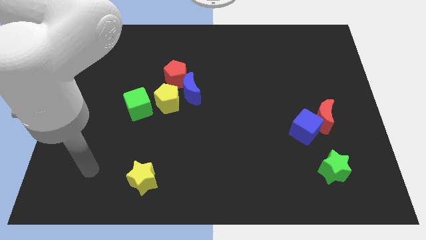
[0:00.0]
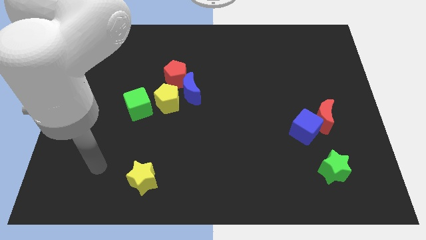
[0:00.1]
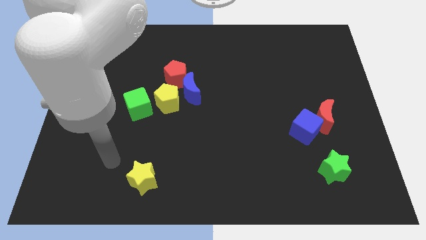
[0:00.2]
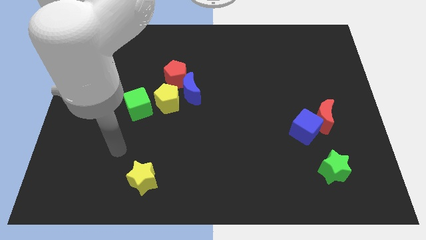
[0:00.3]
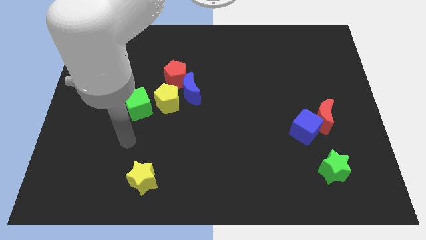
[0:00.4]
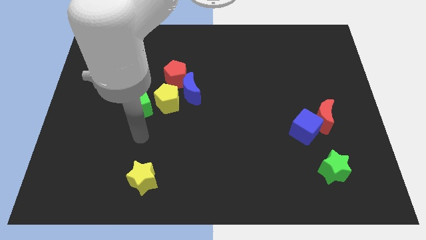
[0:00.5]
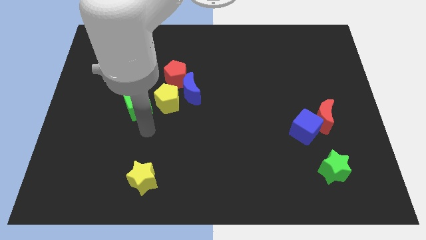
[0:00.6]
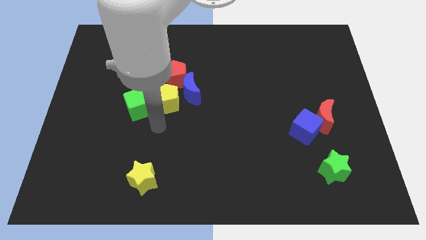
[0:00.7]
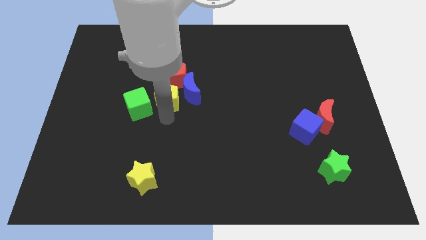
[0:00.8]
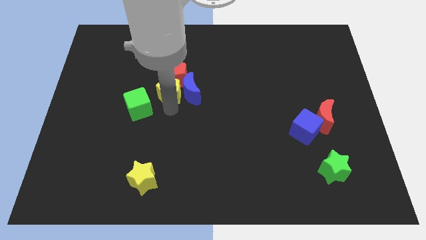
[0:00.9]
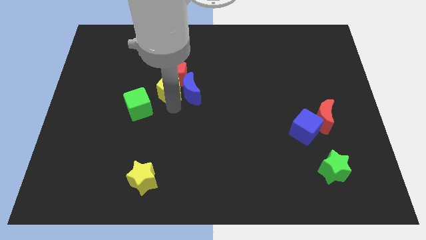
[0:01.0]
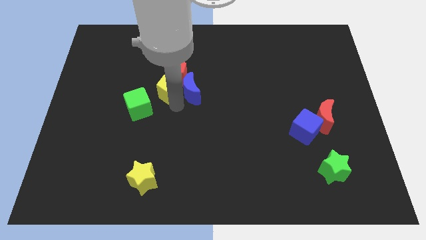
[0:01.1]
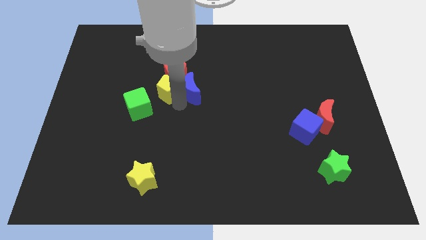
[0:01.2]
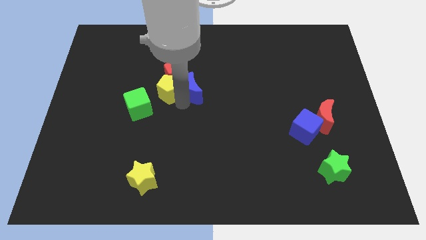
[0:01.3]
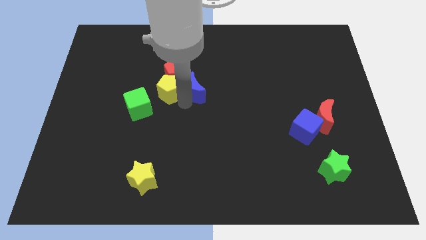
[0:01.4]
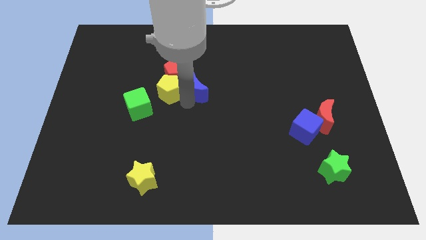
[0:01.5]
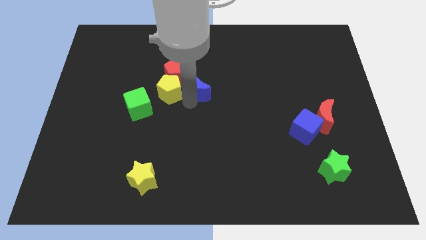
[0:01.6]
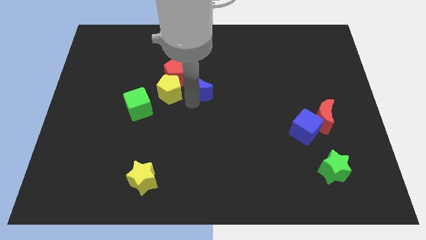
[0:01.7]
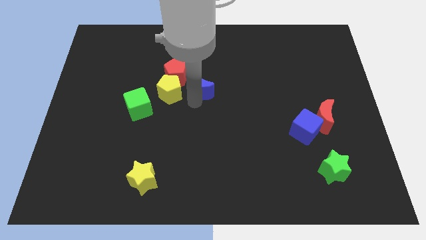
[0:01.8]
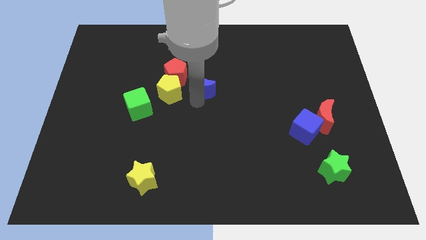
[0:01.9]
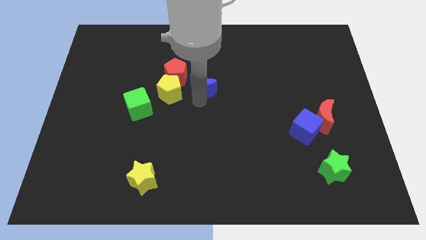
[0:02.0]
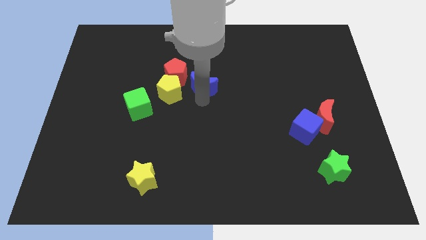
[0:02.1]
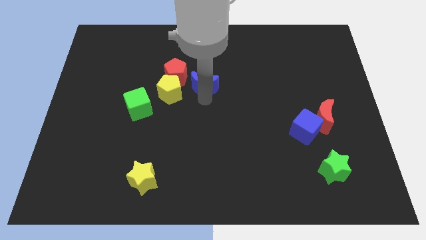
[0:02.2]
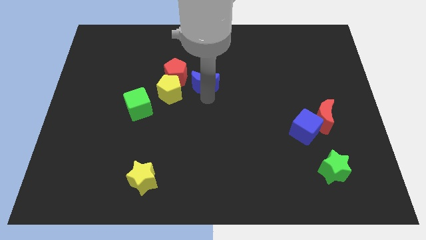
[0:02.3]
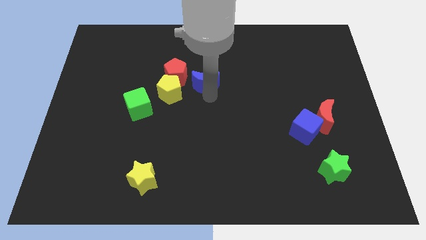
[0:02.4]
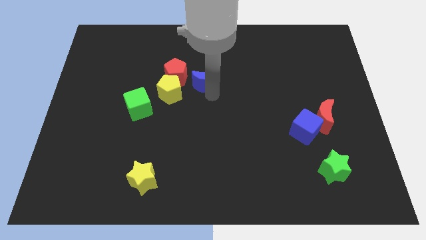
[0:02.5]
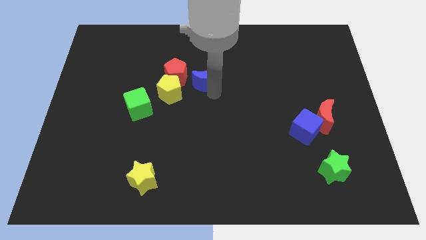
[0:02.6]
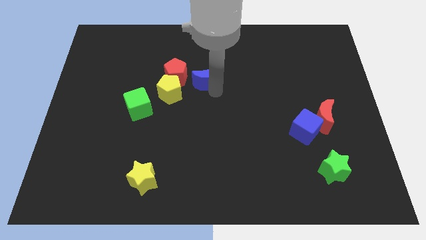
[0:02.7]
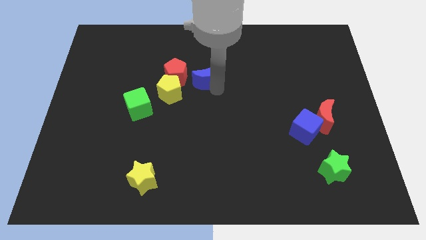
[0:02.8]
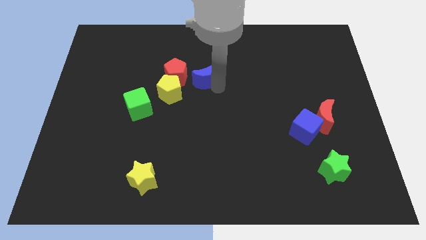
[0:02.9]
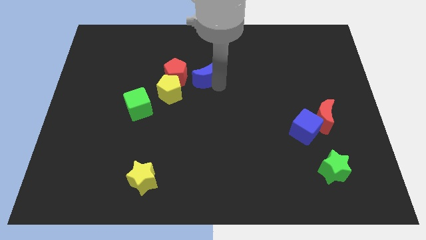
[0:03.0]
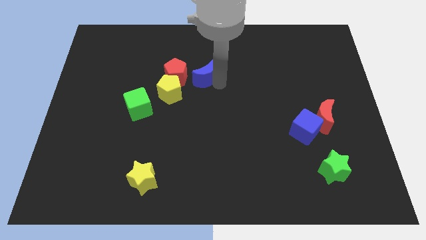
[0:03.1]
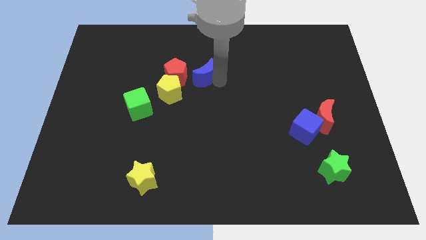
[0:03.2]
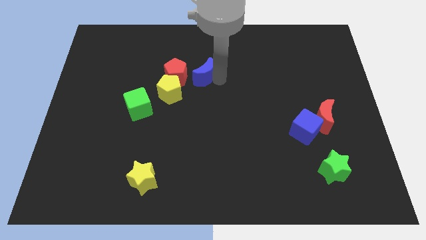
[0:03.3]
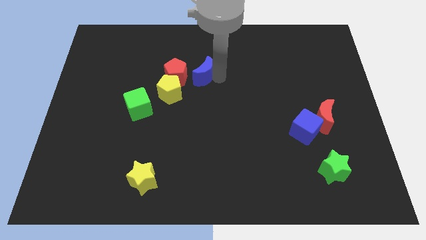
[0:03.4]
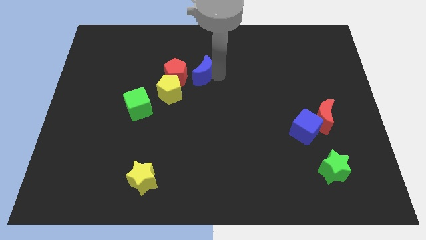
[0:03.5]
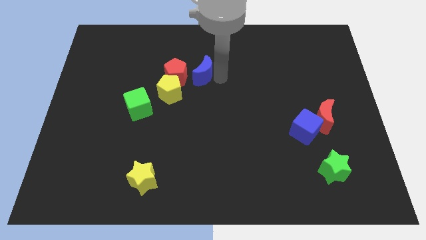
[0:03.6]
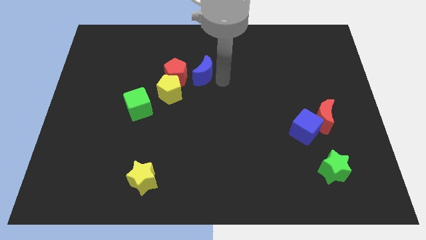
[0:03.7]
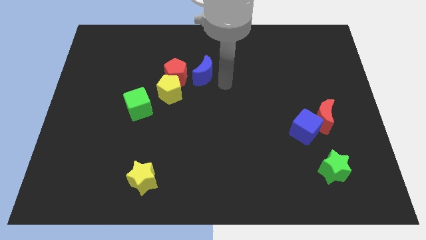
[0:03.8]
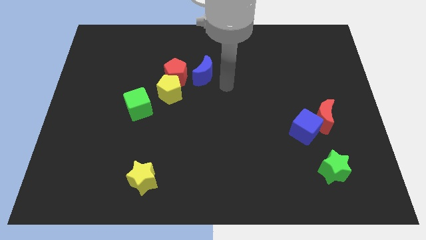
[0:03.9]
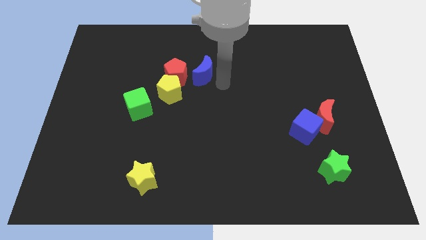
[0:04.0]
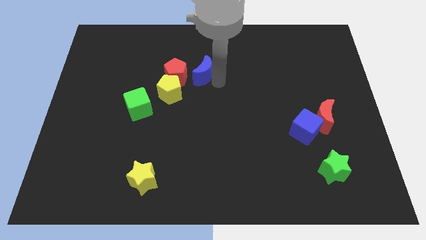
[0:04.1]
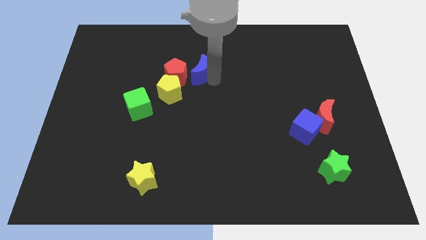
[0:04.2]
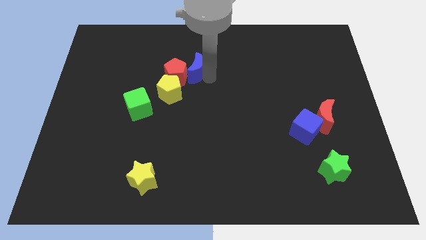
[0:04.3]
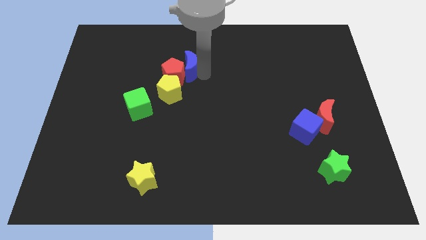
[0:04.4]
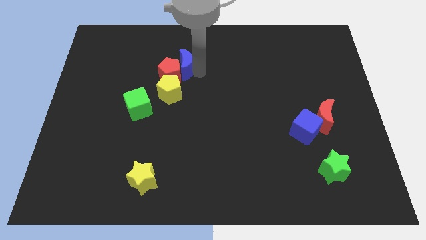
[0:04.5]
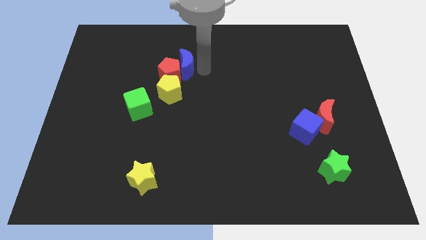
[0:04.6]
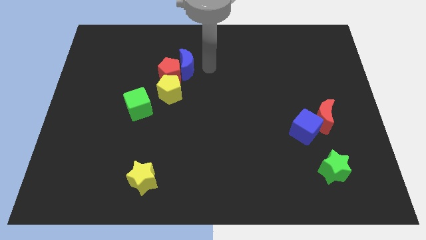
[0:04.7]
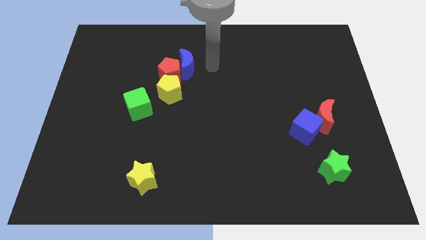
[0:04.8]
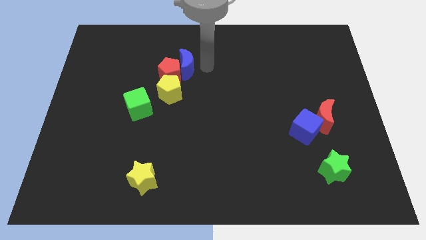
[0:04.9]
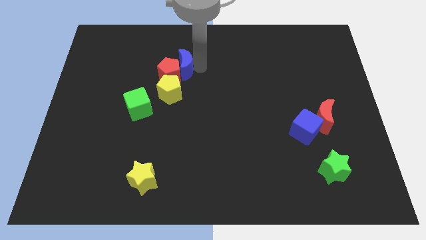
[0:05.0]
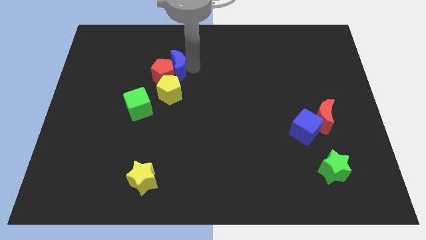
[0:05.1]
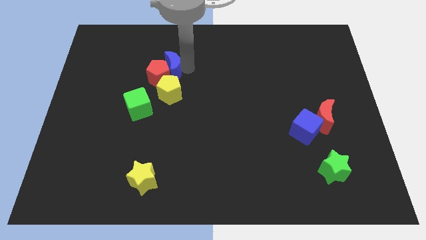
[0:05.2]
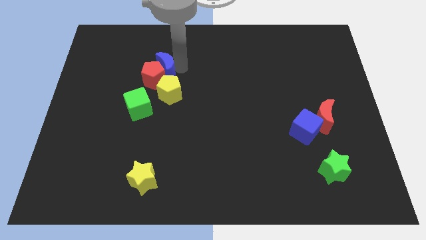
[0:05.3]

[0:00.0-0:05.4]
push the blue moon to the top left side of the yellow pentagon

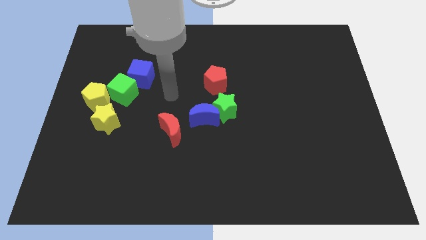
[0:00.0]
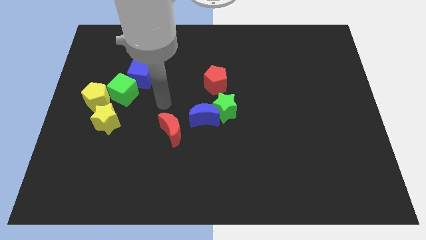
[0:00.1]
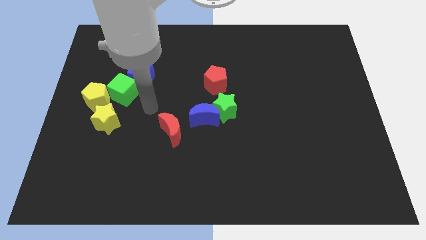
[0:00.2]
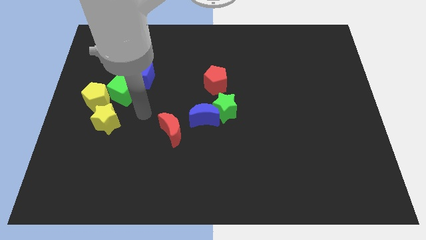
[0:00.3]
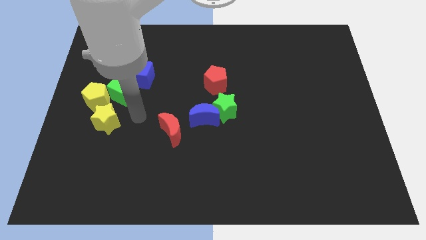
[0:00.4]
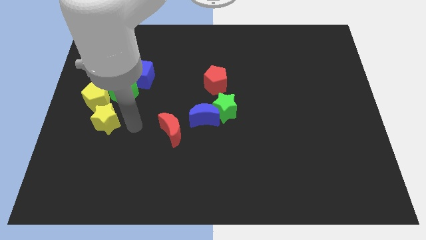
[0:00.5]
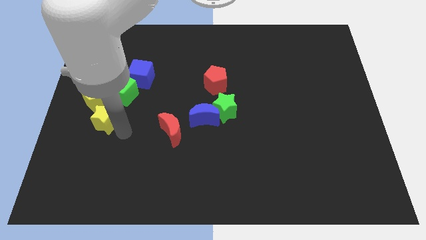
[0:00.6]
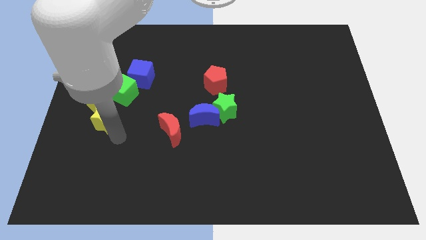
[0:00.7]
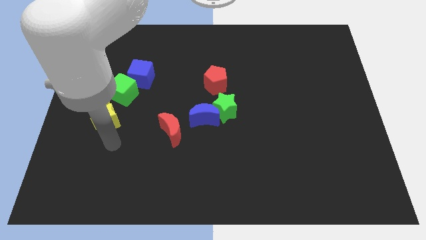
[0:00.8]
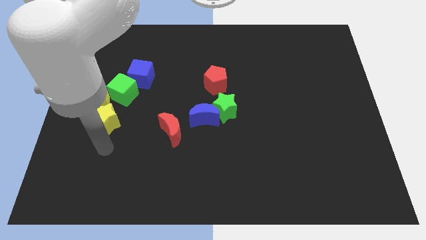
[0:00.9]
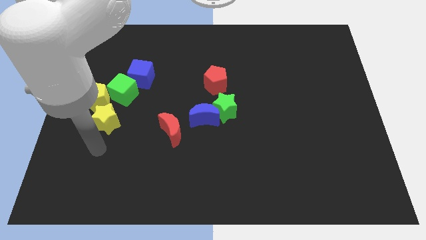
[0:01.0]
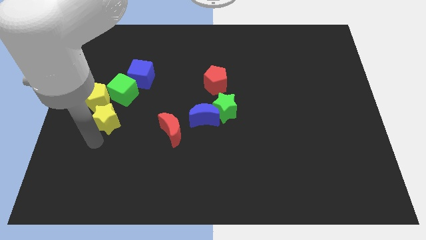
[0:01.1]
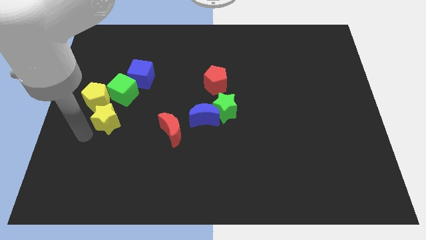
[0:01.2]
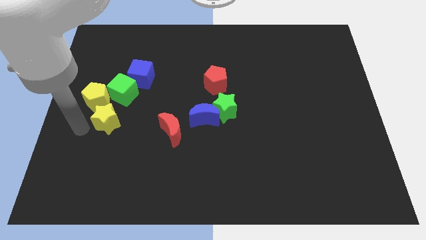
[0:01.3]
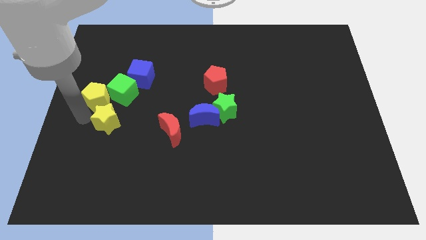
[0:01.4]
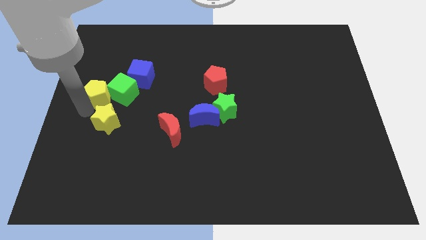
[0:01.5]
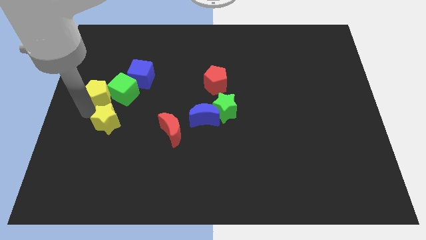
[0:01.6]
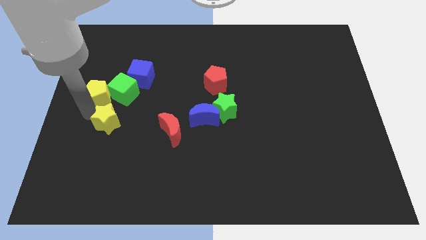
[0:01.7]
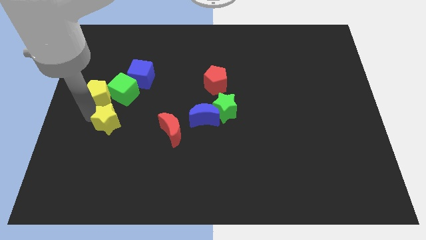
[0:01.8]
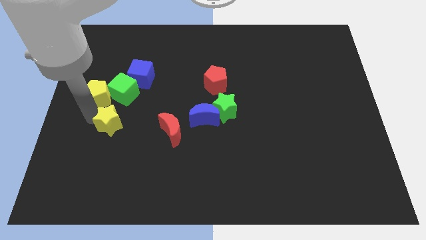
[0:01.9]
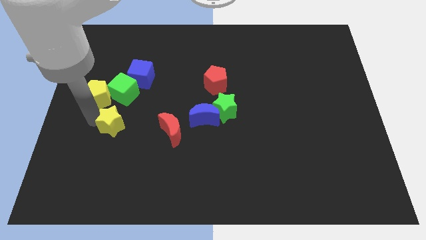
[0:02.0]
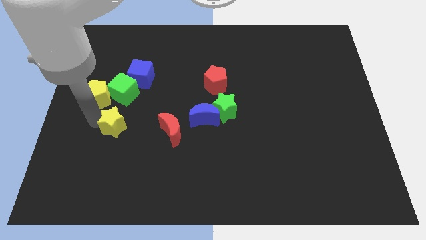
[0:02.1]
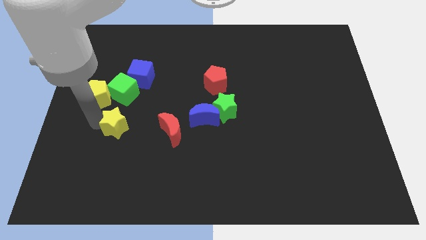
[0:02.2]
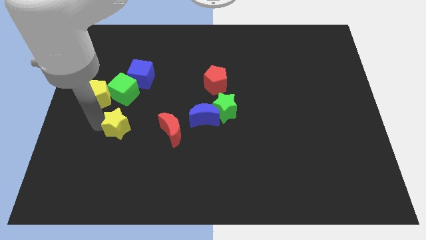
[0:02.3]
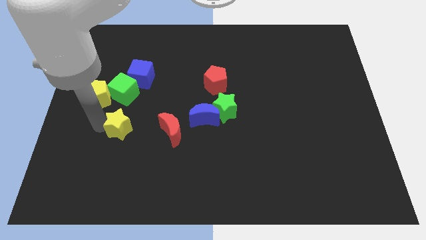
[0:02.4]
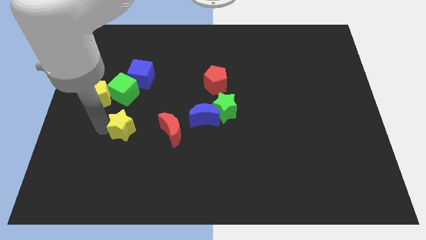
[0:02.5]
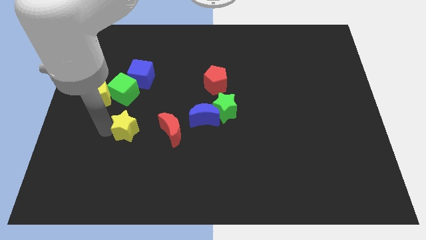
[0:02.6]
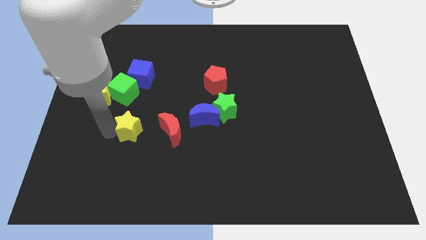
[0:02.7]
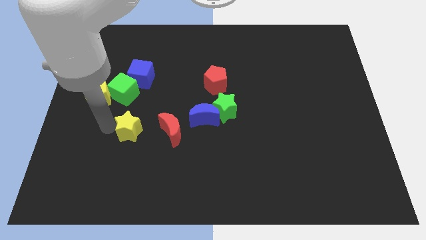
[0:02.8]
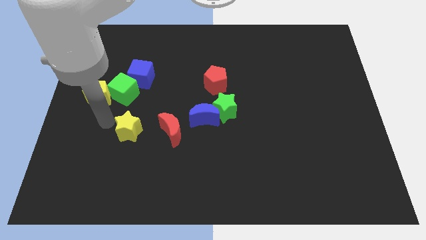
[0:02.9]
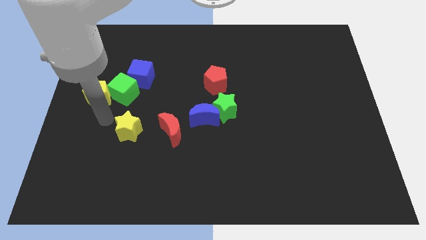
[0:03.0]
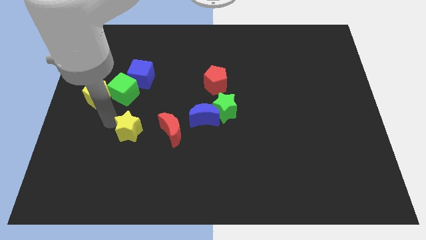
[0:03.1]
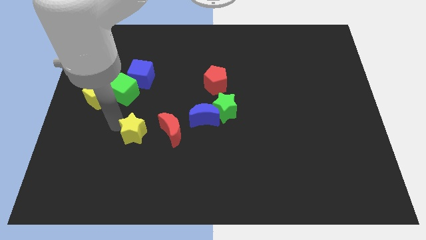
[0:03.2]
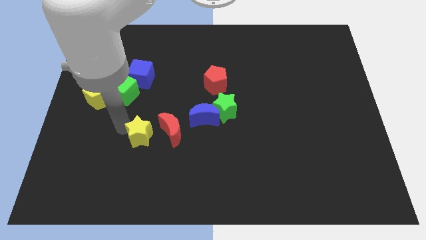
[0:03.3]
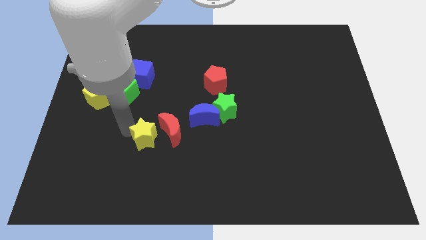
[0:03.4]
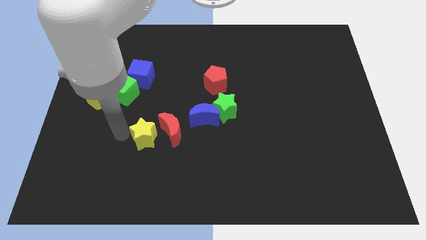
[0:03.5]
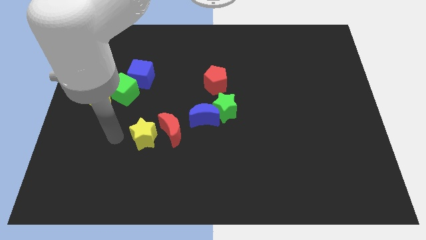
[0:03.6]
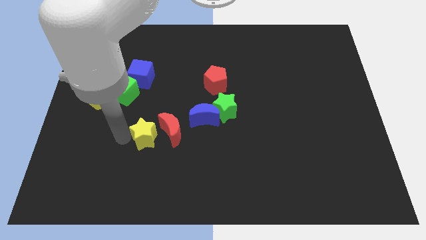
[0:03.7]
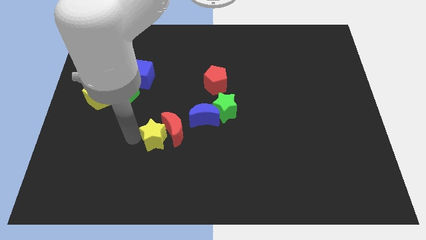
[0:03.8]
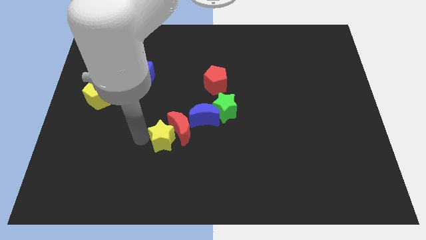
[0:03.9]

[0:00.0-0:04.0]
slide the yellow star to the bottom left side of the blue moon
